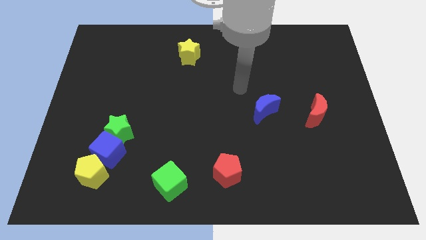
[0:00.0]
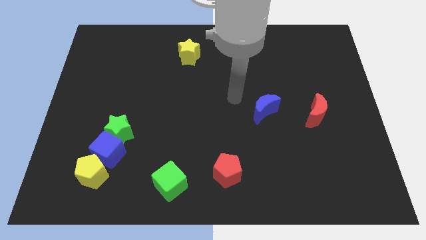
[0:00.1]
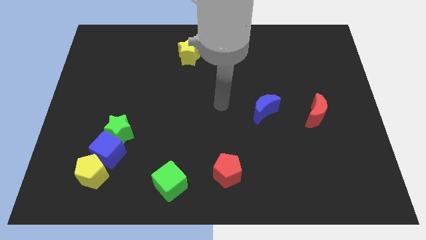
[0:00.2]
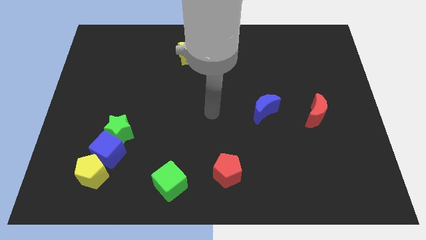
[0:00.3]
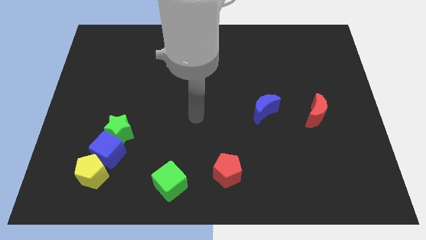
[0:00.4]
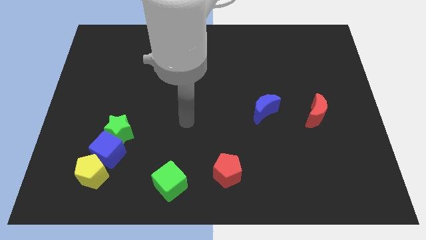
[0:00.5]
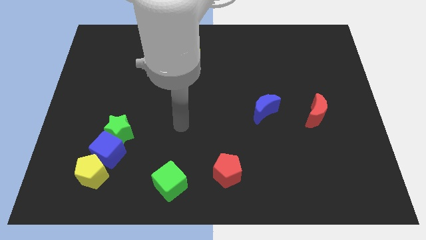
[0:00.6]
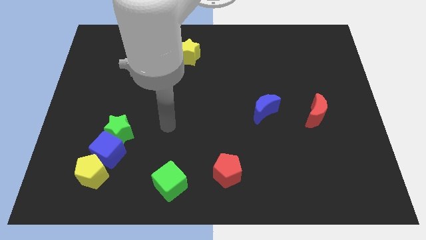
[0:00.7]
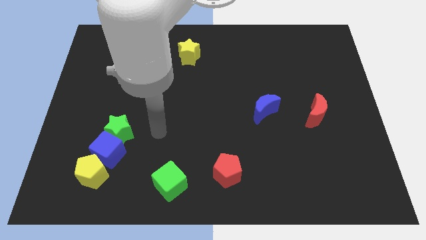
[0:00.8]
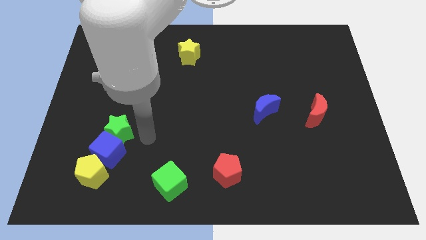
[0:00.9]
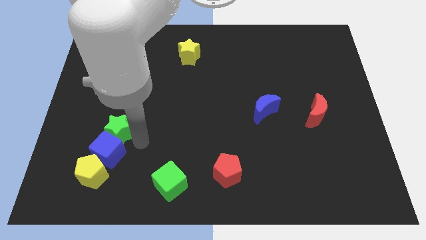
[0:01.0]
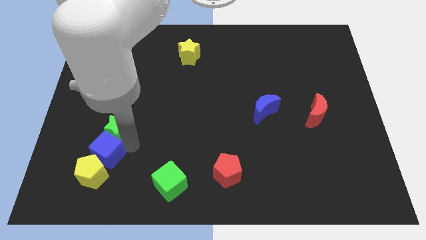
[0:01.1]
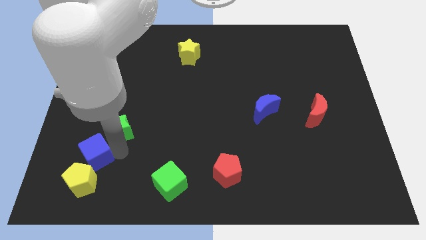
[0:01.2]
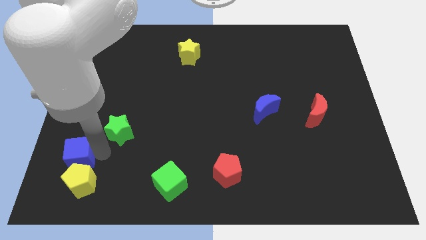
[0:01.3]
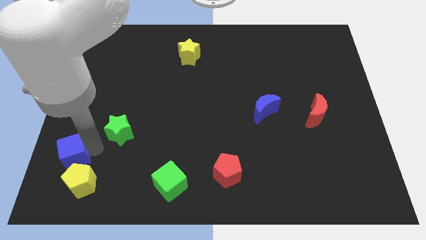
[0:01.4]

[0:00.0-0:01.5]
separate the green star from the blue cube

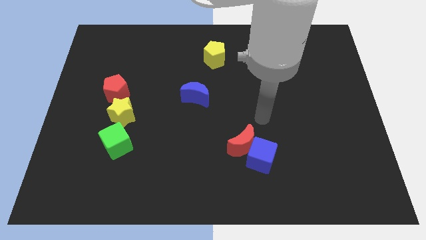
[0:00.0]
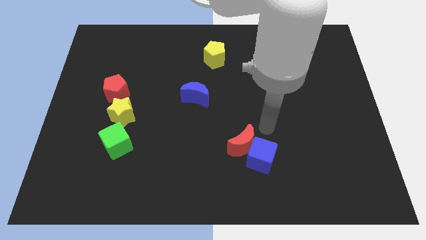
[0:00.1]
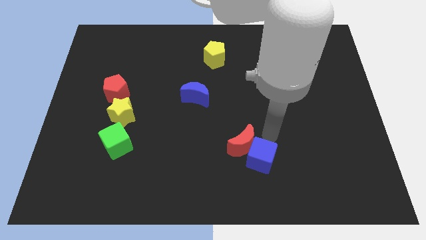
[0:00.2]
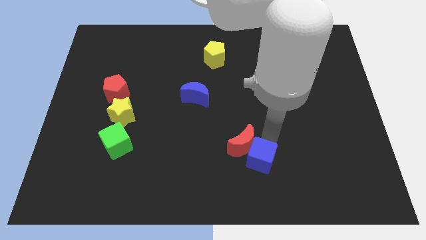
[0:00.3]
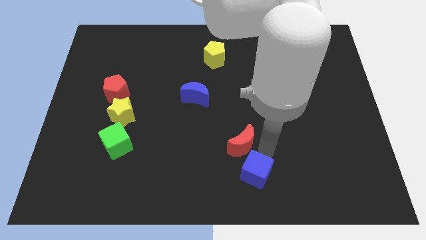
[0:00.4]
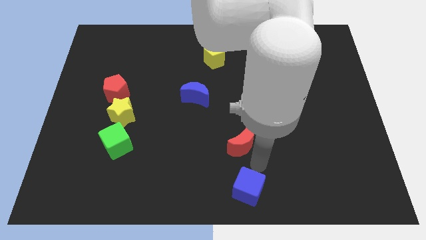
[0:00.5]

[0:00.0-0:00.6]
separate the red moon from the blue cube

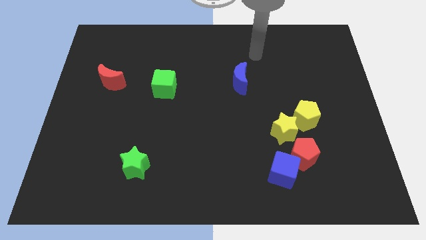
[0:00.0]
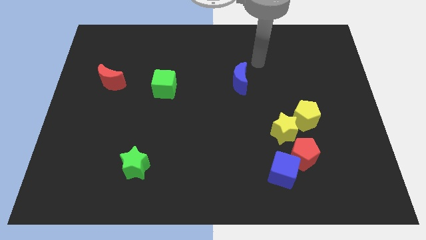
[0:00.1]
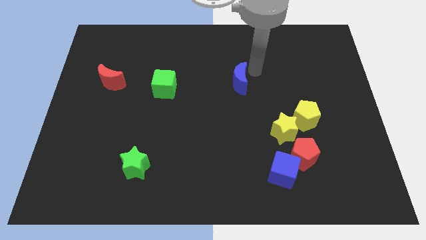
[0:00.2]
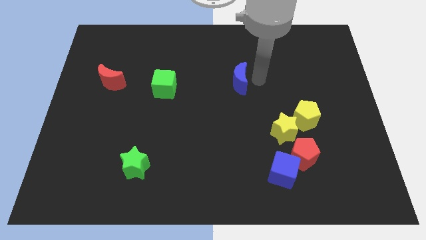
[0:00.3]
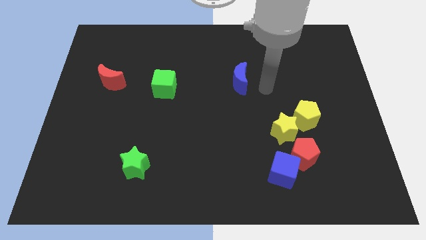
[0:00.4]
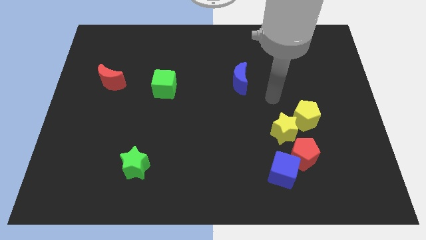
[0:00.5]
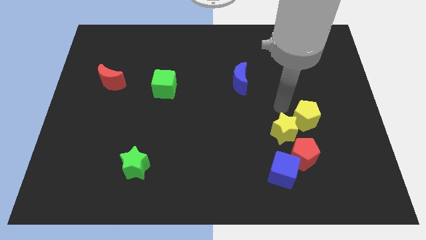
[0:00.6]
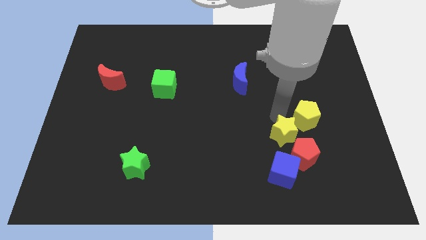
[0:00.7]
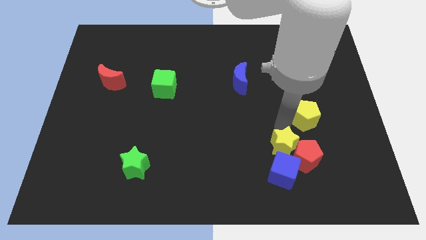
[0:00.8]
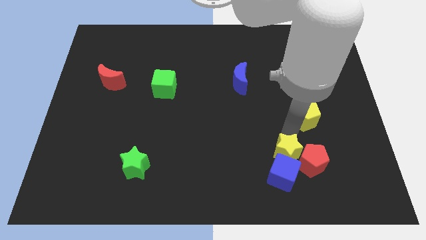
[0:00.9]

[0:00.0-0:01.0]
move the yellow pentagon away from the yellow star

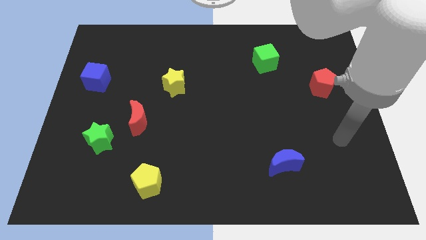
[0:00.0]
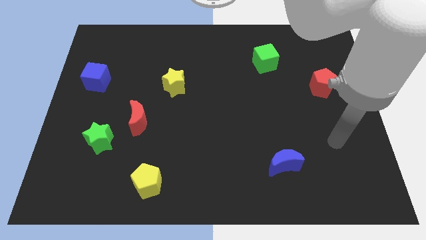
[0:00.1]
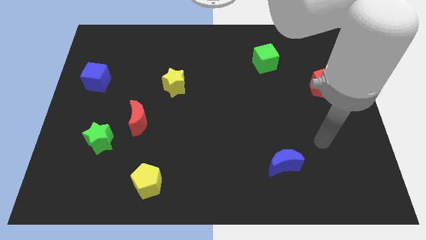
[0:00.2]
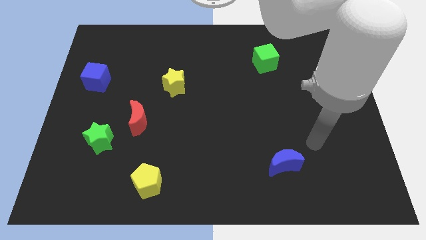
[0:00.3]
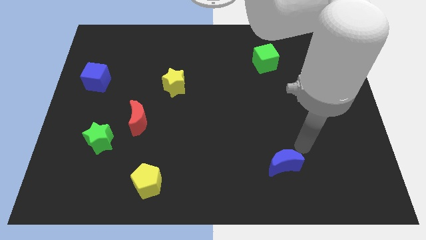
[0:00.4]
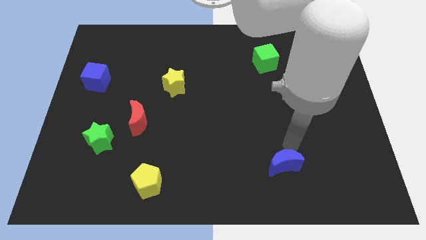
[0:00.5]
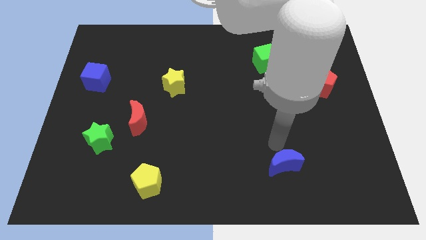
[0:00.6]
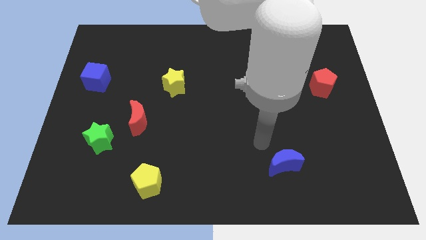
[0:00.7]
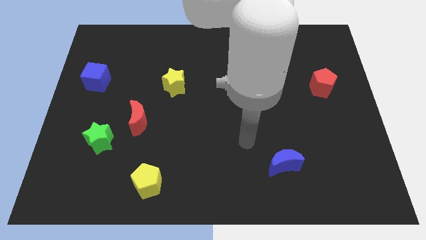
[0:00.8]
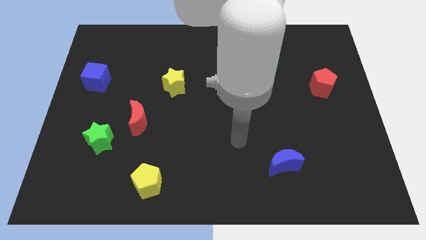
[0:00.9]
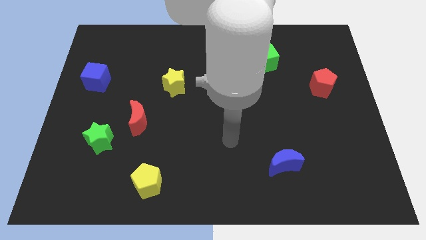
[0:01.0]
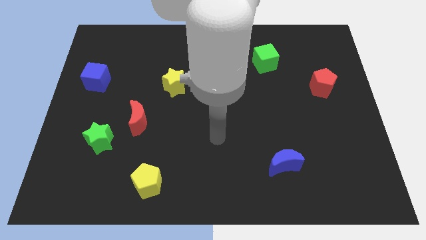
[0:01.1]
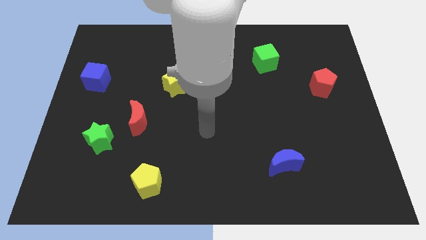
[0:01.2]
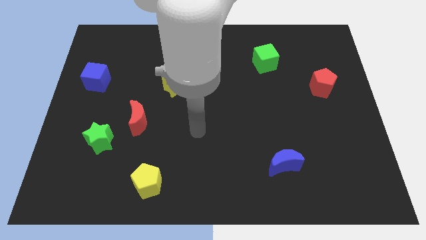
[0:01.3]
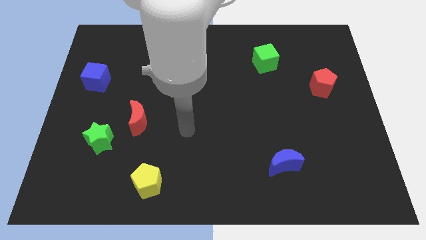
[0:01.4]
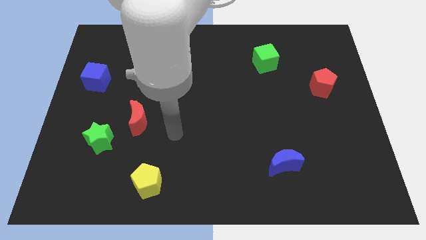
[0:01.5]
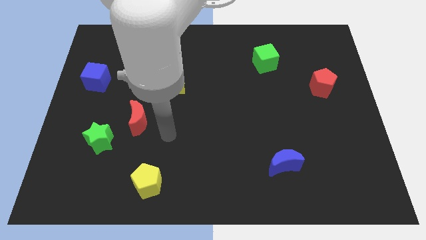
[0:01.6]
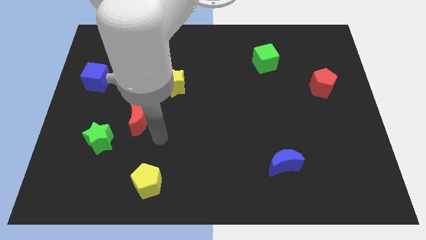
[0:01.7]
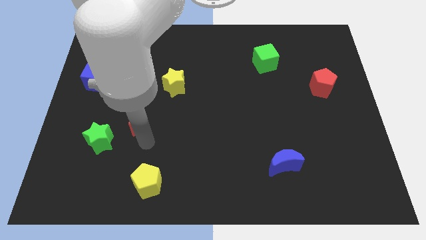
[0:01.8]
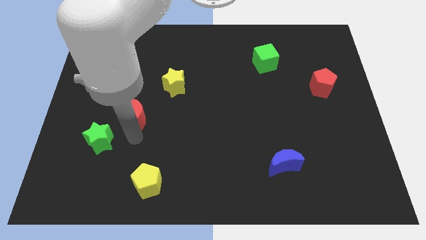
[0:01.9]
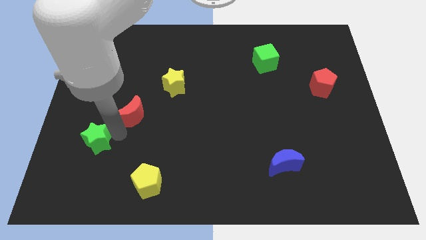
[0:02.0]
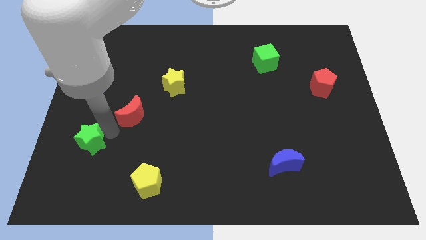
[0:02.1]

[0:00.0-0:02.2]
move the red moon away from the green star

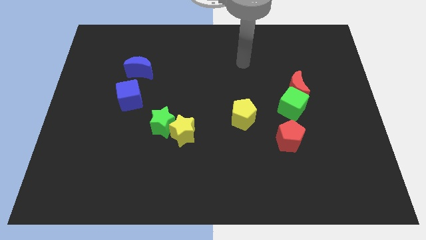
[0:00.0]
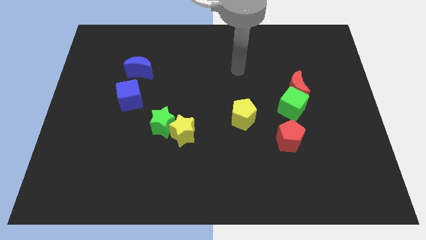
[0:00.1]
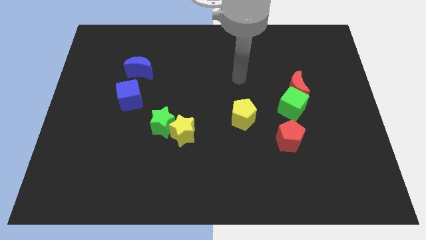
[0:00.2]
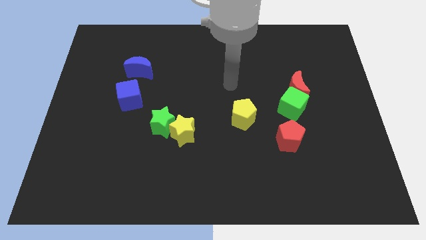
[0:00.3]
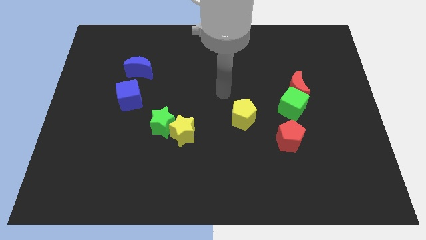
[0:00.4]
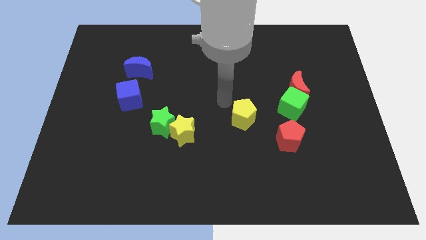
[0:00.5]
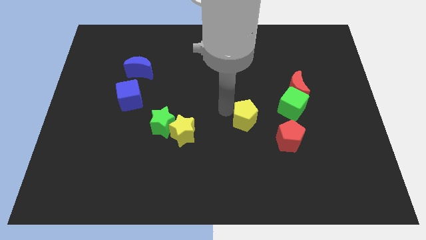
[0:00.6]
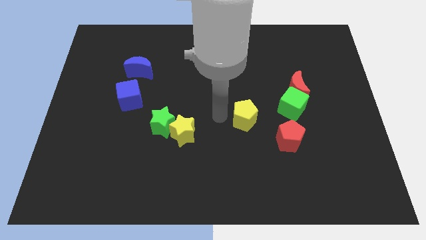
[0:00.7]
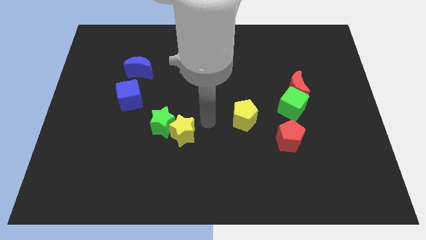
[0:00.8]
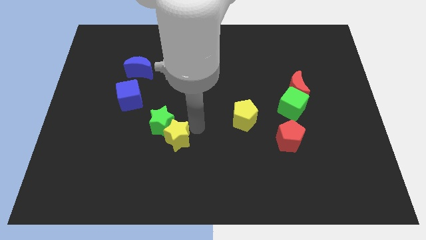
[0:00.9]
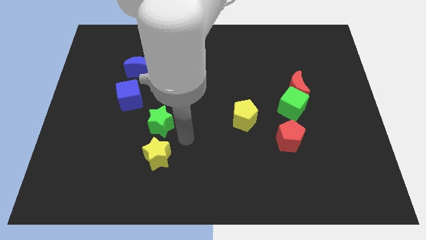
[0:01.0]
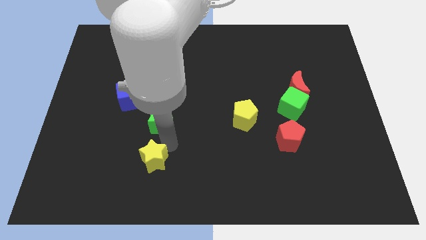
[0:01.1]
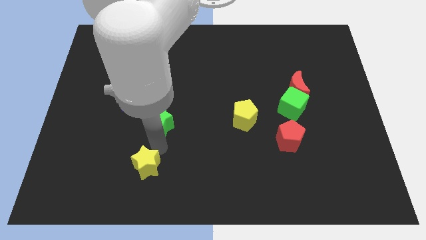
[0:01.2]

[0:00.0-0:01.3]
separate the green star from the yellow star

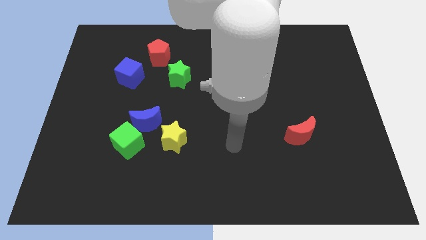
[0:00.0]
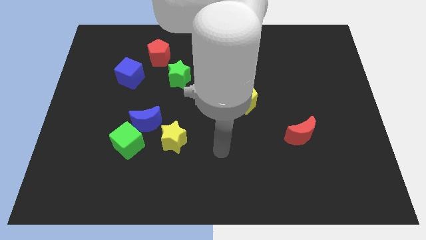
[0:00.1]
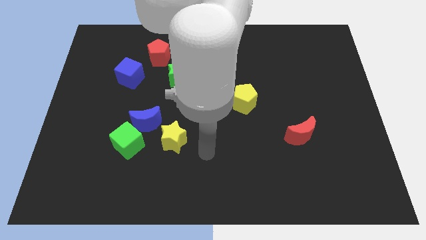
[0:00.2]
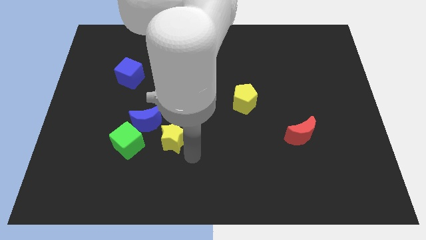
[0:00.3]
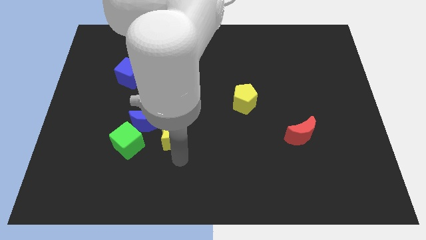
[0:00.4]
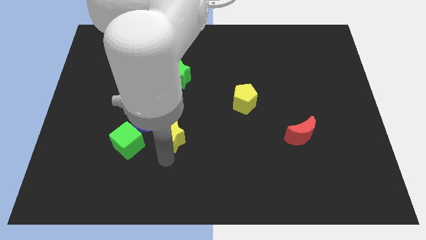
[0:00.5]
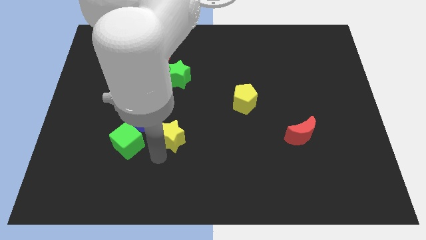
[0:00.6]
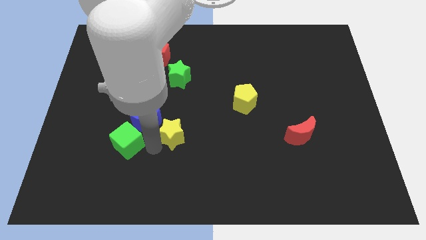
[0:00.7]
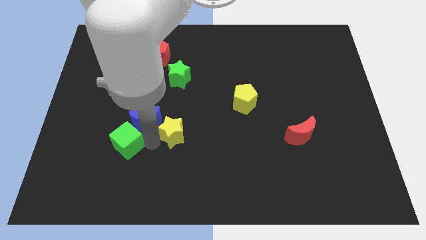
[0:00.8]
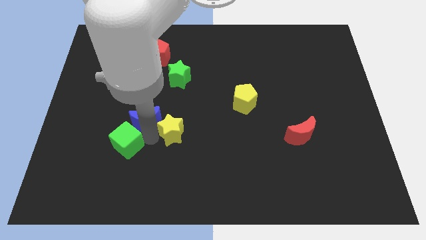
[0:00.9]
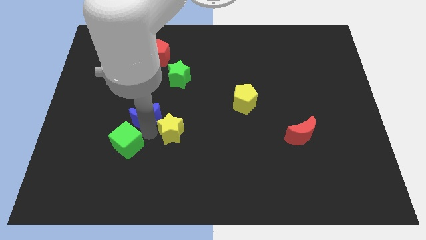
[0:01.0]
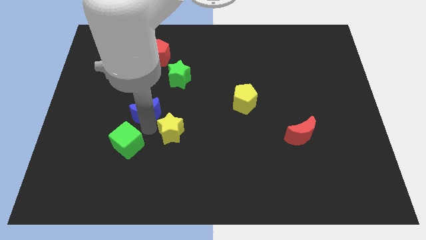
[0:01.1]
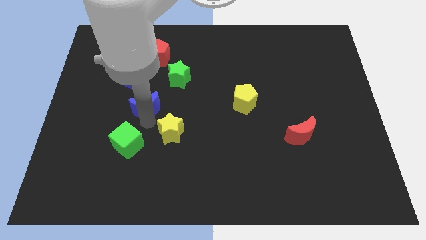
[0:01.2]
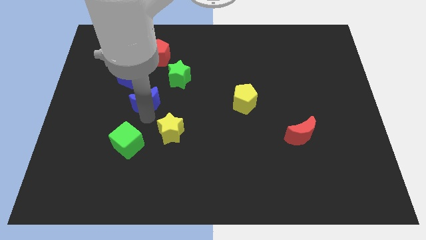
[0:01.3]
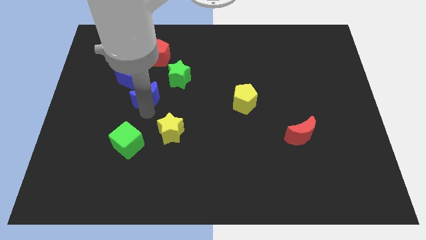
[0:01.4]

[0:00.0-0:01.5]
pull the blue moon apart from the green cube and yellow star

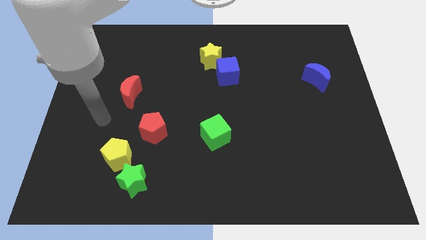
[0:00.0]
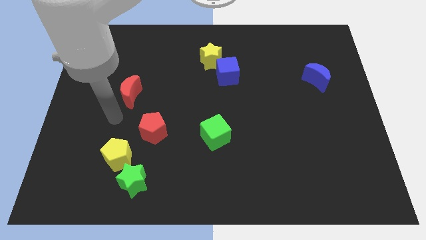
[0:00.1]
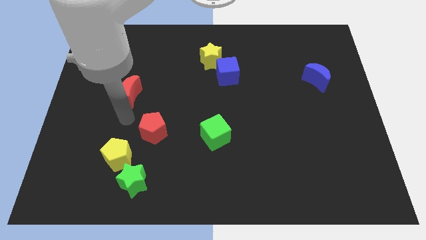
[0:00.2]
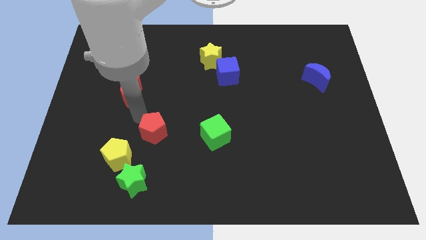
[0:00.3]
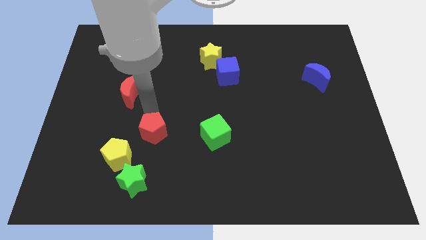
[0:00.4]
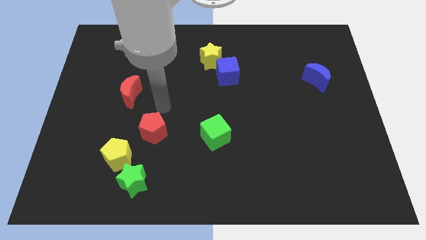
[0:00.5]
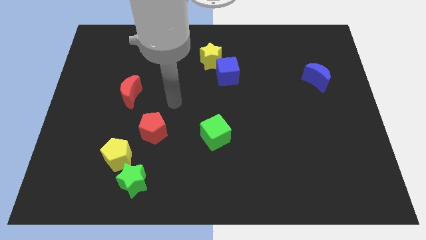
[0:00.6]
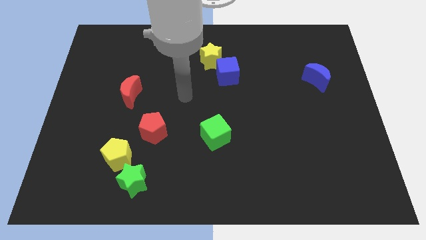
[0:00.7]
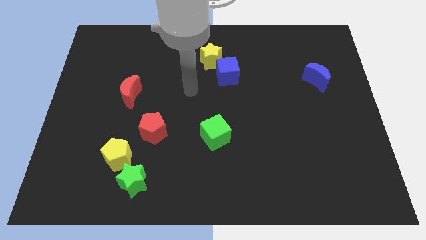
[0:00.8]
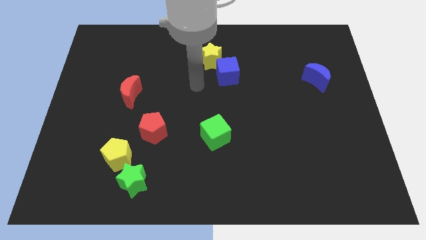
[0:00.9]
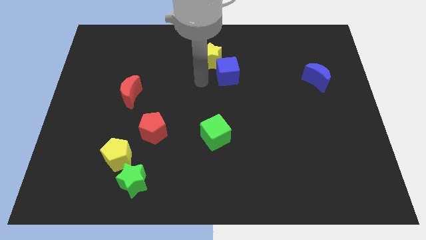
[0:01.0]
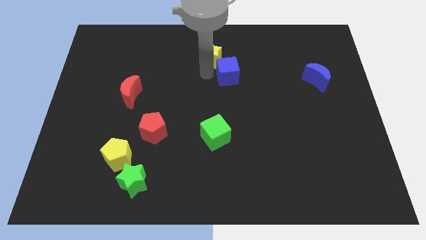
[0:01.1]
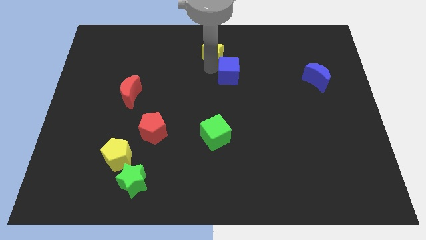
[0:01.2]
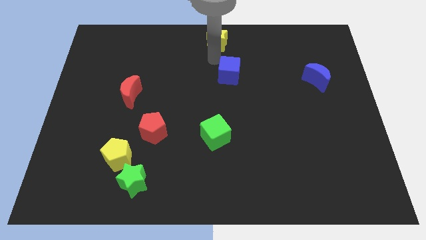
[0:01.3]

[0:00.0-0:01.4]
move the blue cube away from the yellow star
